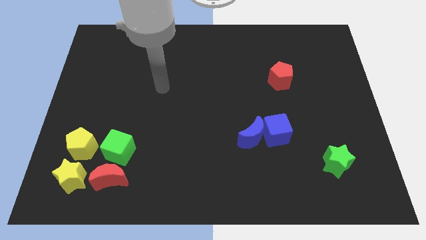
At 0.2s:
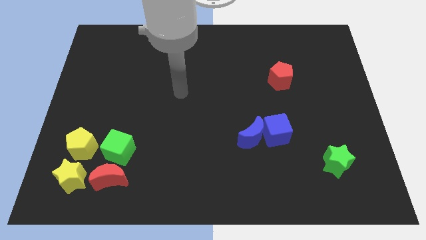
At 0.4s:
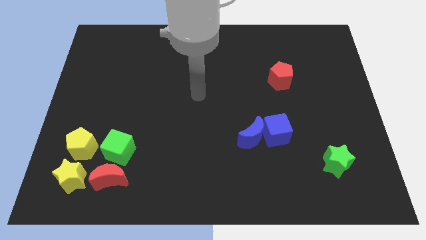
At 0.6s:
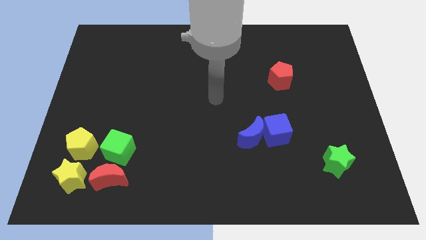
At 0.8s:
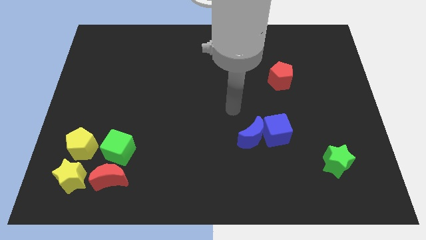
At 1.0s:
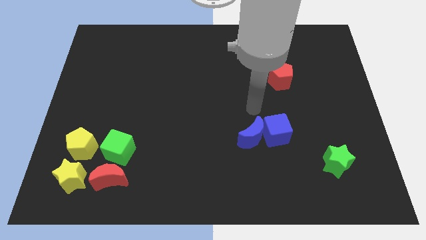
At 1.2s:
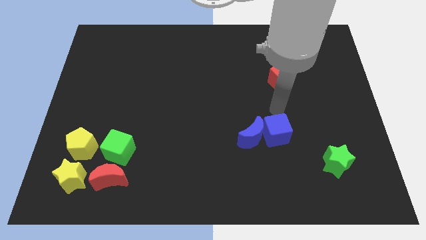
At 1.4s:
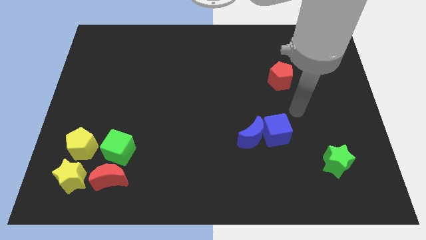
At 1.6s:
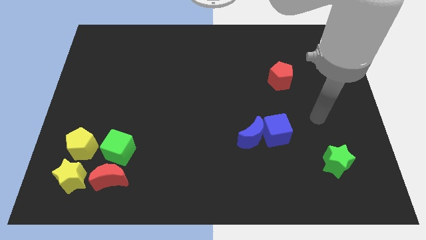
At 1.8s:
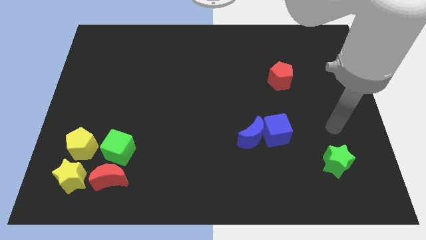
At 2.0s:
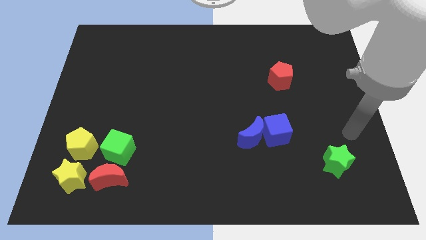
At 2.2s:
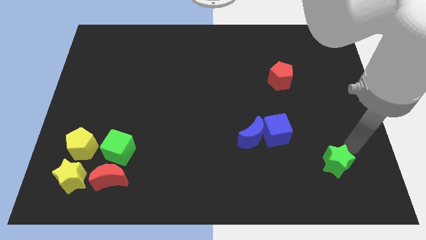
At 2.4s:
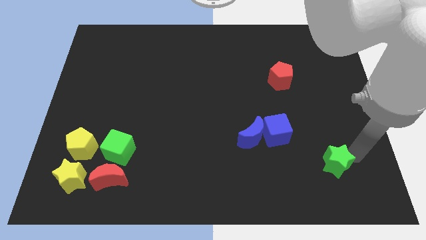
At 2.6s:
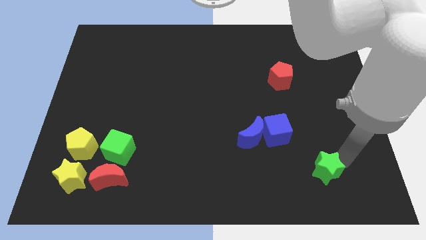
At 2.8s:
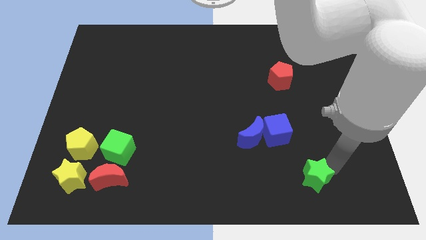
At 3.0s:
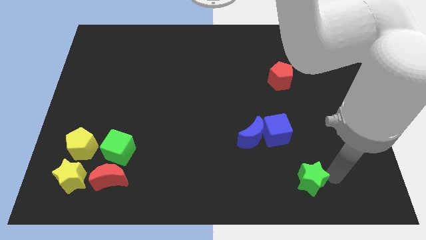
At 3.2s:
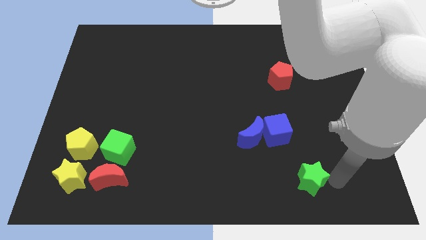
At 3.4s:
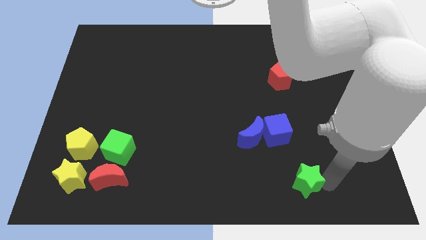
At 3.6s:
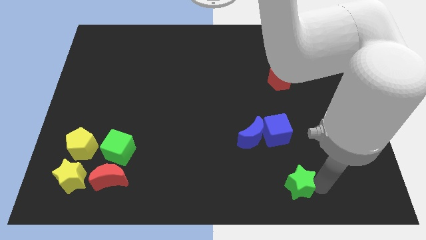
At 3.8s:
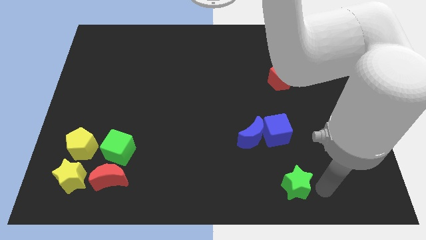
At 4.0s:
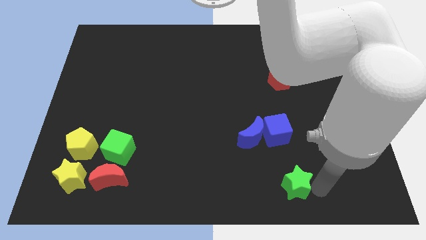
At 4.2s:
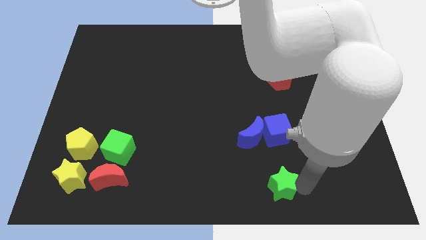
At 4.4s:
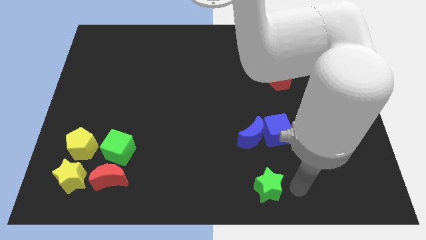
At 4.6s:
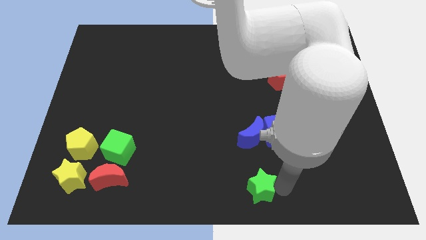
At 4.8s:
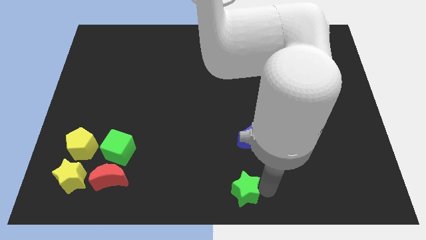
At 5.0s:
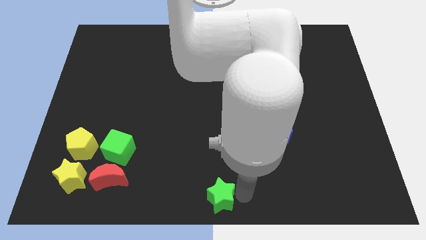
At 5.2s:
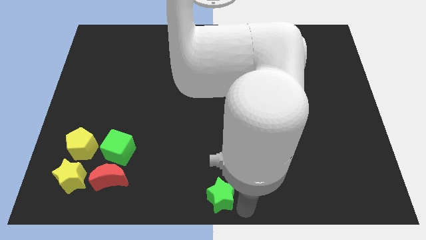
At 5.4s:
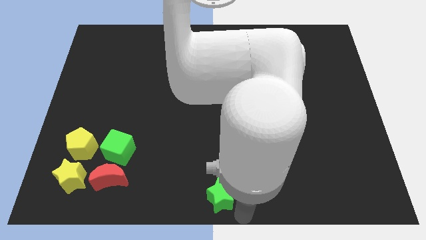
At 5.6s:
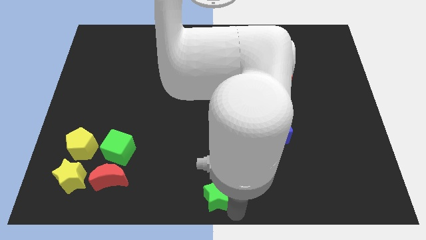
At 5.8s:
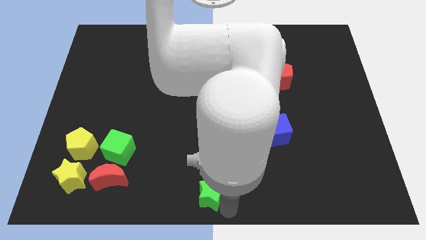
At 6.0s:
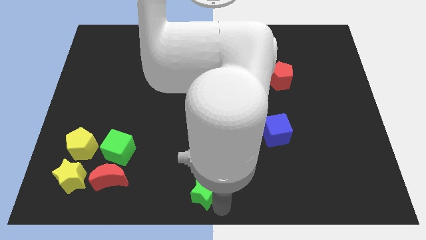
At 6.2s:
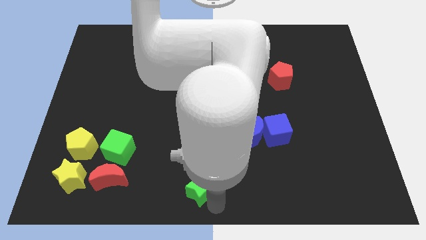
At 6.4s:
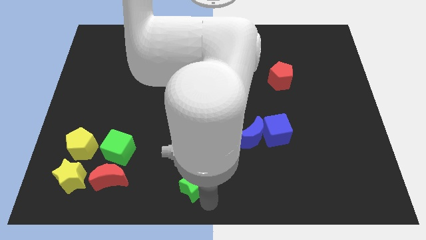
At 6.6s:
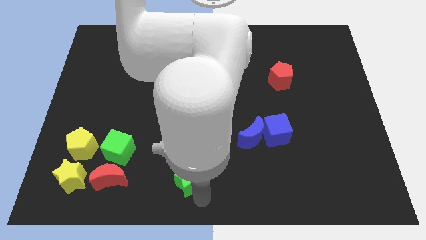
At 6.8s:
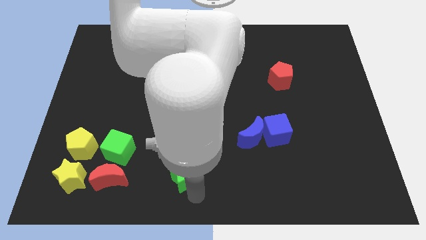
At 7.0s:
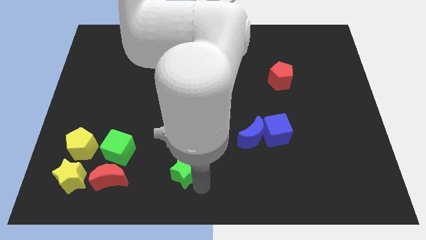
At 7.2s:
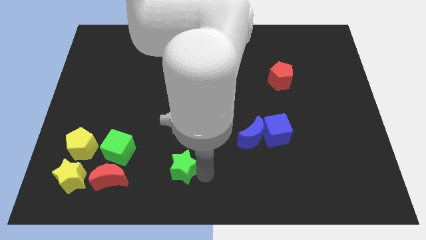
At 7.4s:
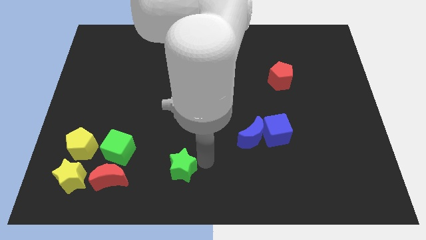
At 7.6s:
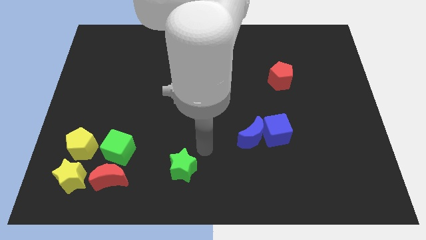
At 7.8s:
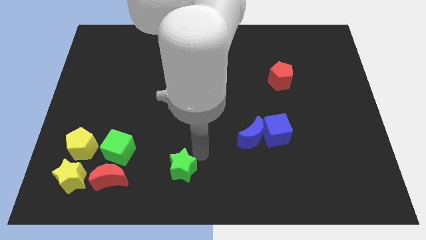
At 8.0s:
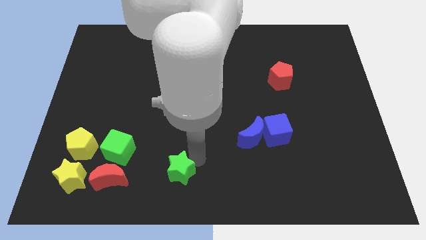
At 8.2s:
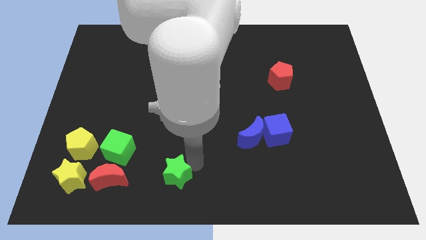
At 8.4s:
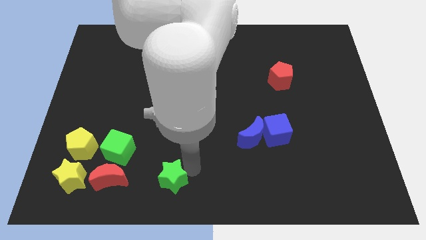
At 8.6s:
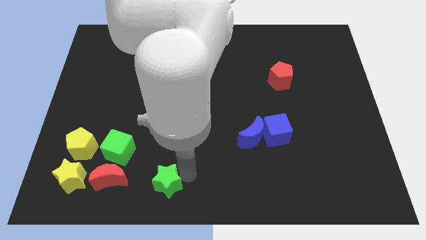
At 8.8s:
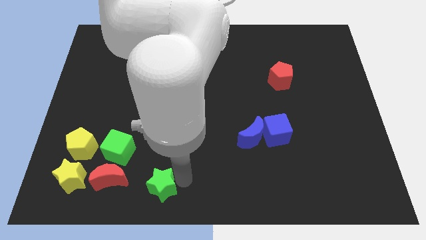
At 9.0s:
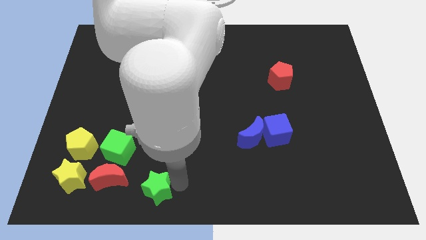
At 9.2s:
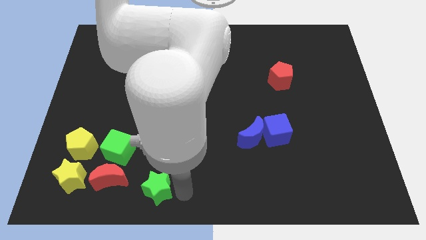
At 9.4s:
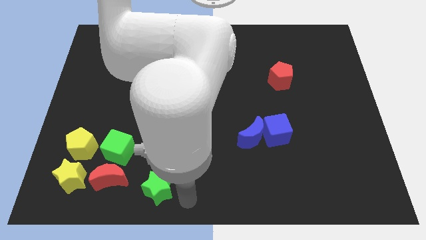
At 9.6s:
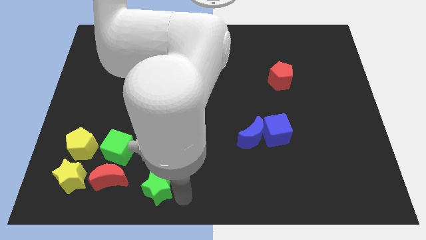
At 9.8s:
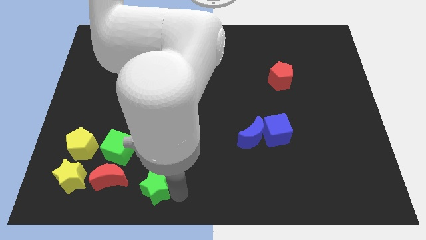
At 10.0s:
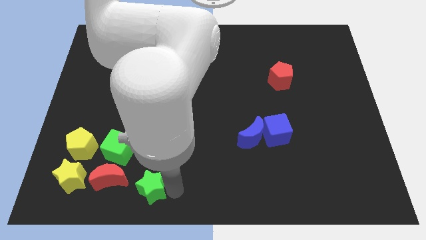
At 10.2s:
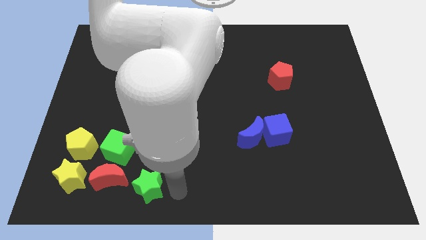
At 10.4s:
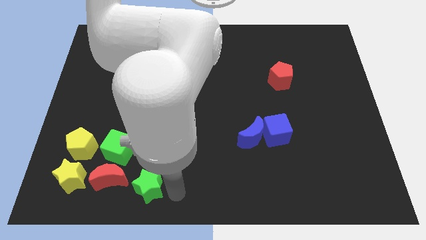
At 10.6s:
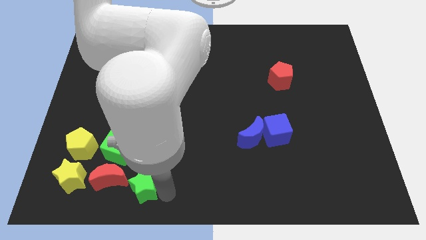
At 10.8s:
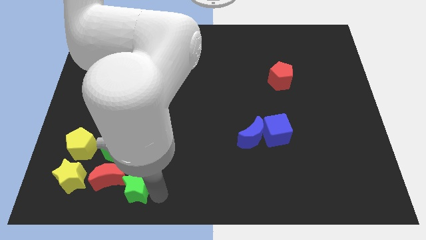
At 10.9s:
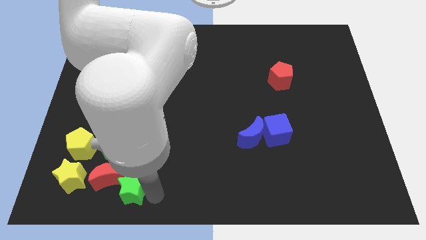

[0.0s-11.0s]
slide the green star next to the red moon

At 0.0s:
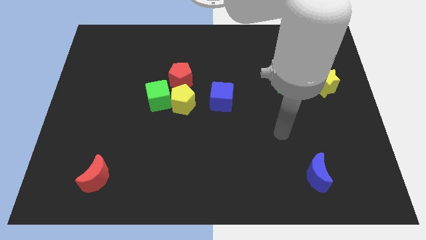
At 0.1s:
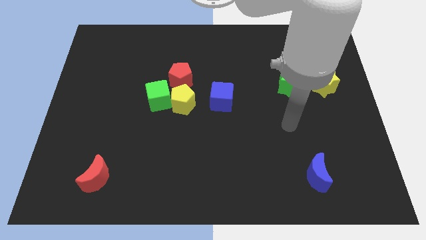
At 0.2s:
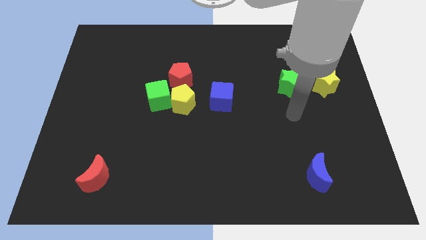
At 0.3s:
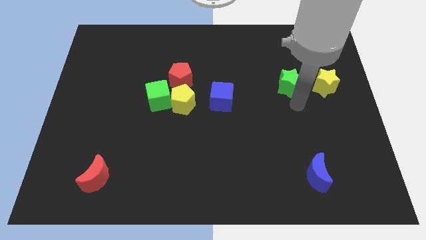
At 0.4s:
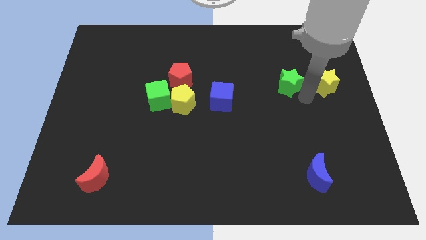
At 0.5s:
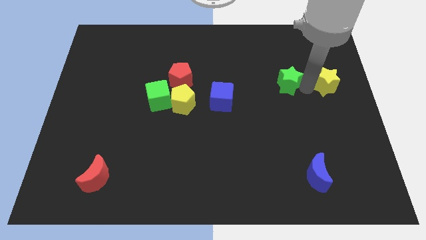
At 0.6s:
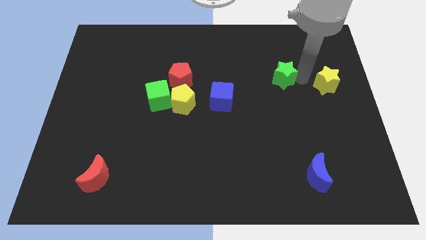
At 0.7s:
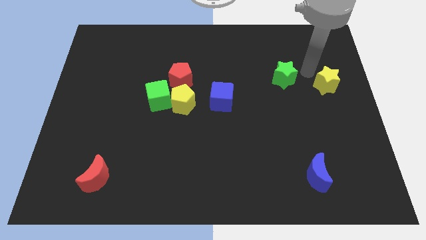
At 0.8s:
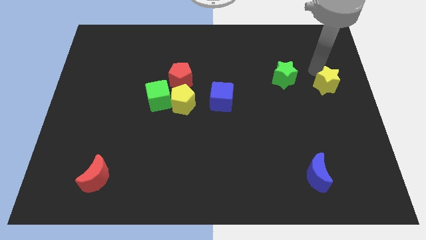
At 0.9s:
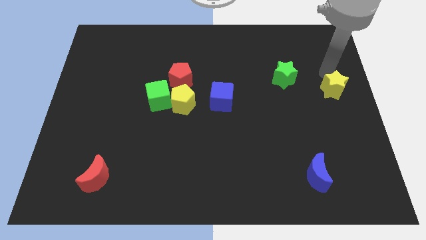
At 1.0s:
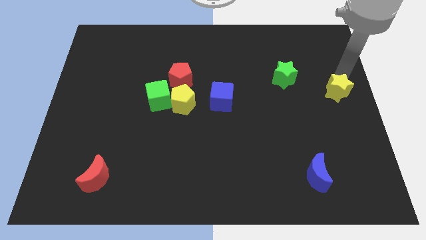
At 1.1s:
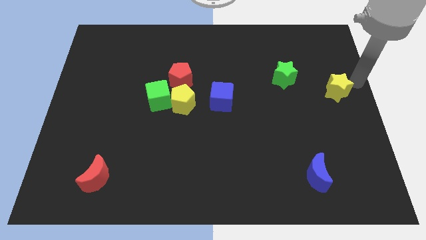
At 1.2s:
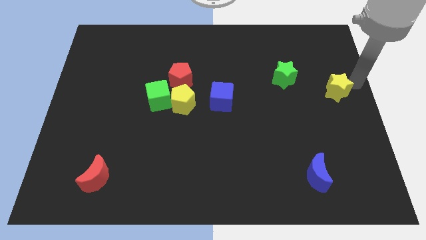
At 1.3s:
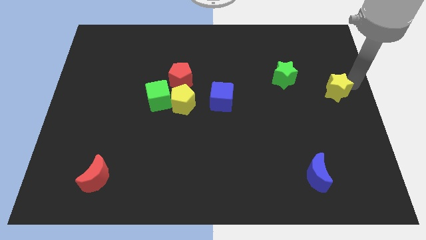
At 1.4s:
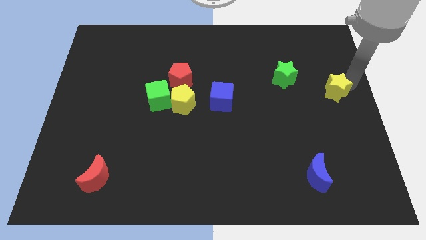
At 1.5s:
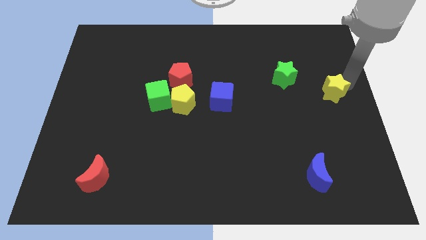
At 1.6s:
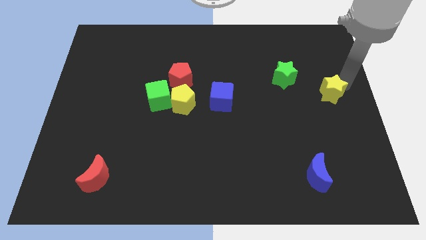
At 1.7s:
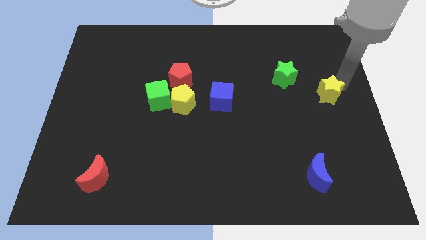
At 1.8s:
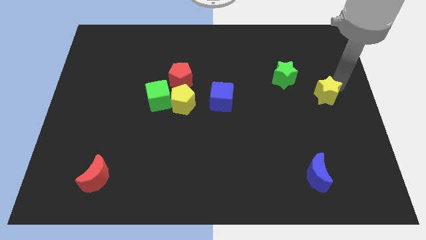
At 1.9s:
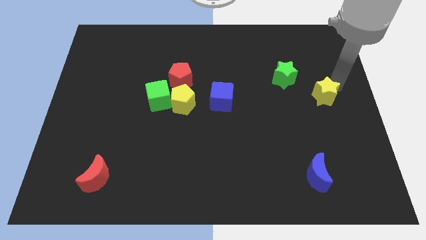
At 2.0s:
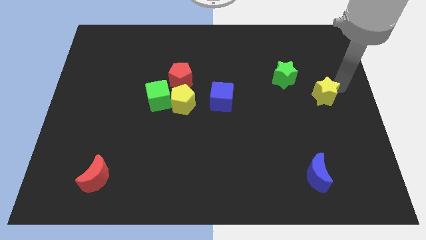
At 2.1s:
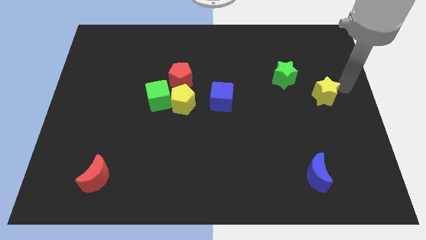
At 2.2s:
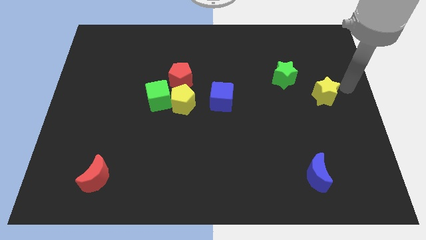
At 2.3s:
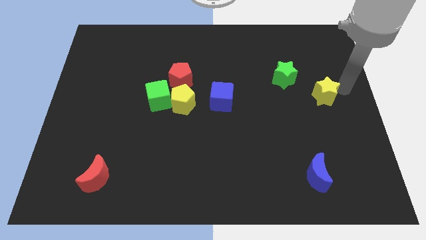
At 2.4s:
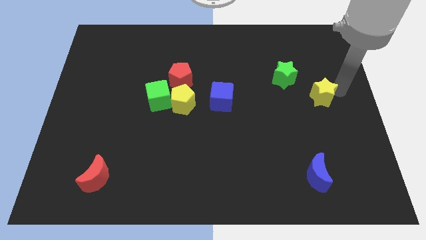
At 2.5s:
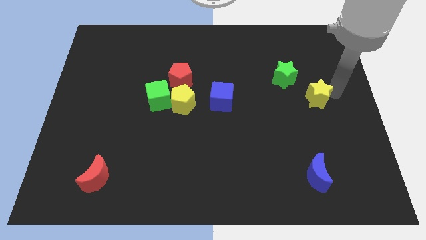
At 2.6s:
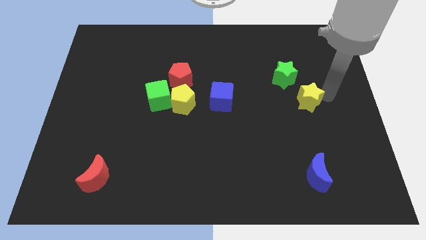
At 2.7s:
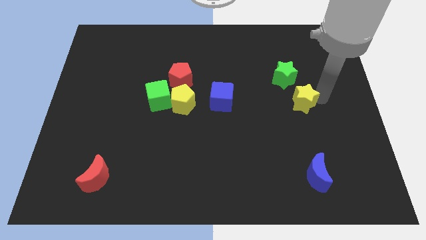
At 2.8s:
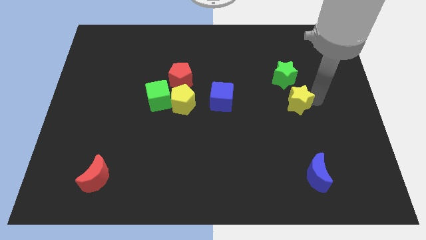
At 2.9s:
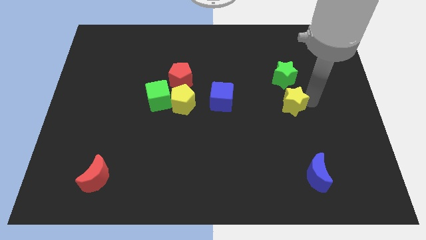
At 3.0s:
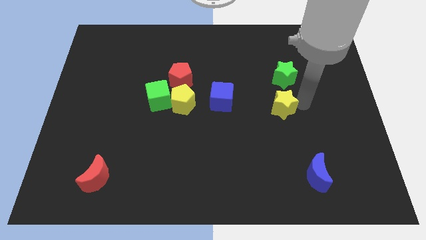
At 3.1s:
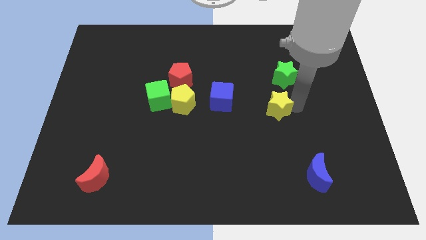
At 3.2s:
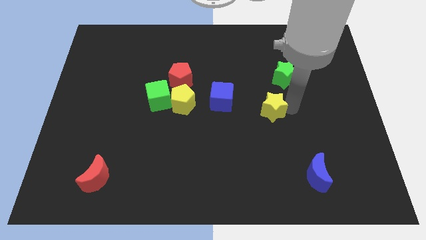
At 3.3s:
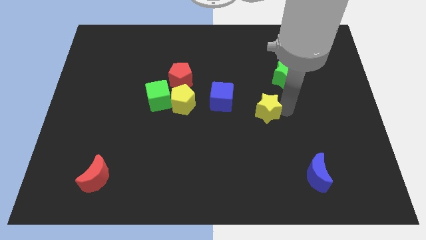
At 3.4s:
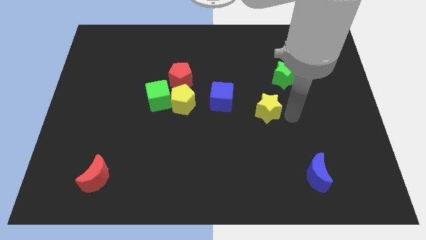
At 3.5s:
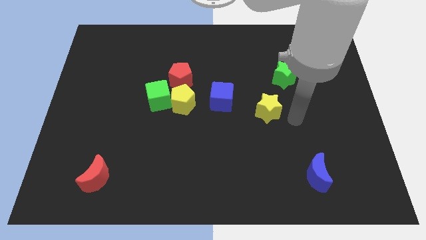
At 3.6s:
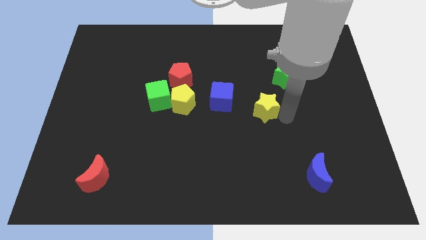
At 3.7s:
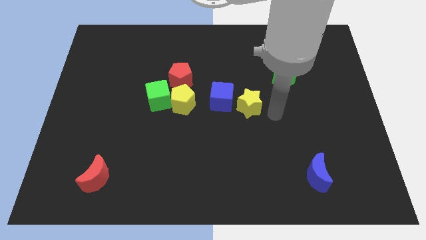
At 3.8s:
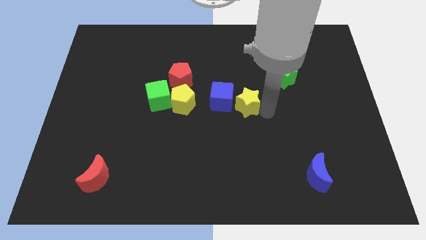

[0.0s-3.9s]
slide the yellow star close to the blue cube
